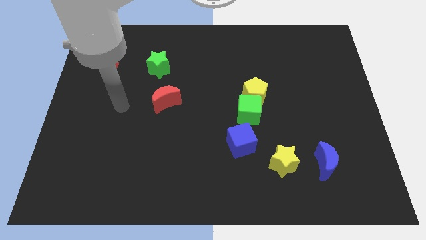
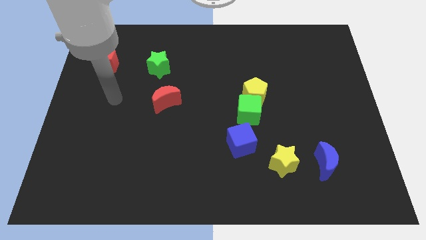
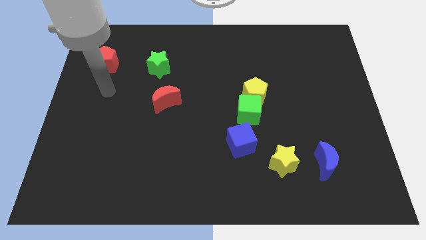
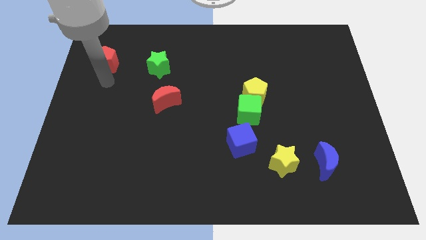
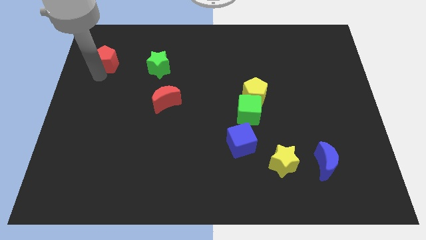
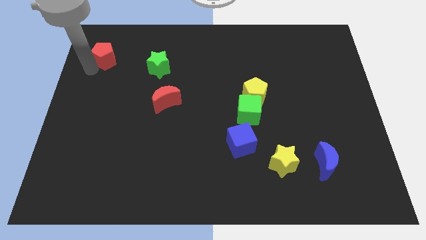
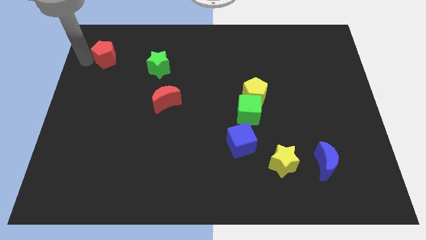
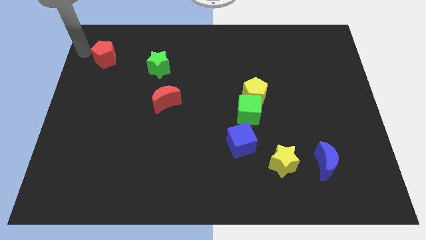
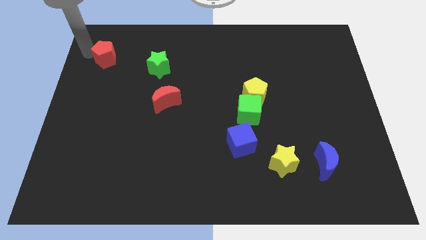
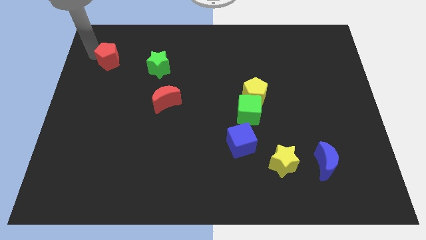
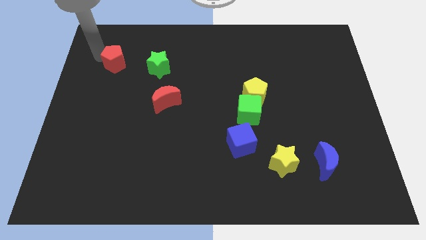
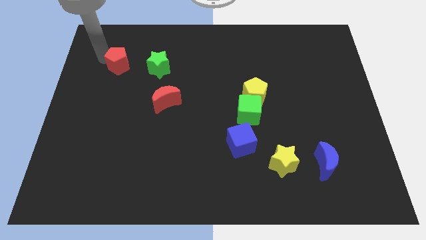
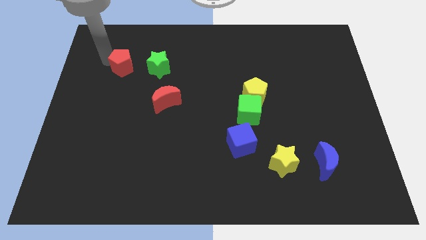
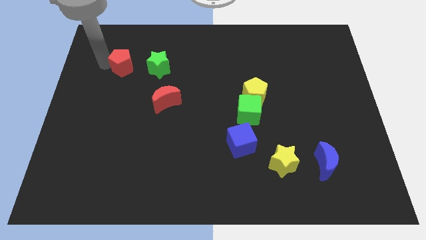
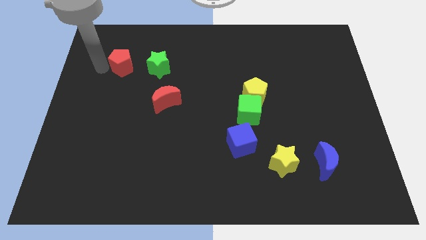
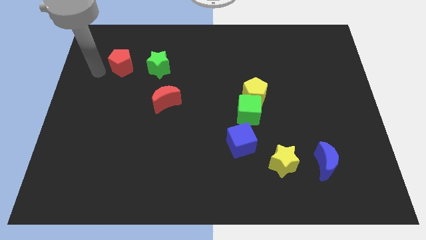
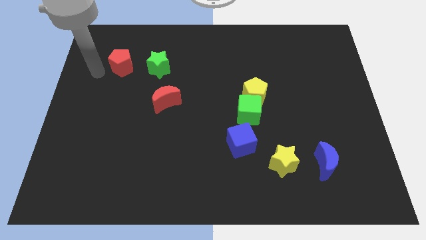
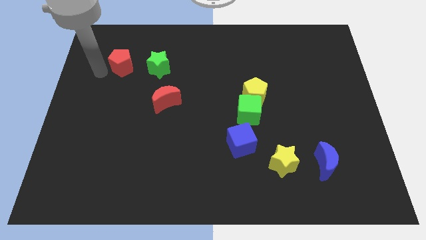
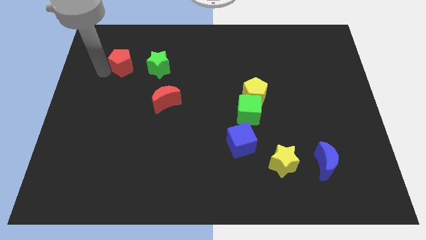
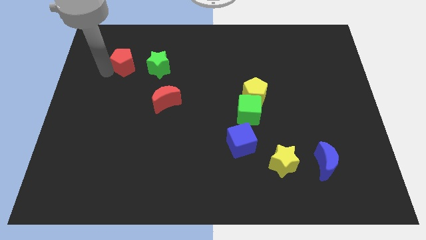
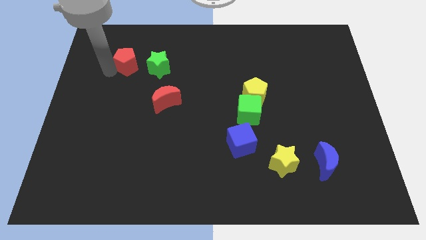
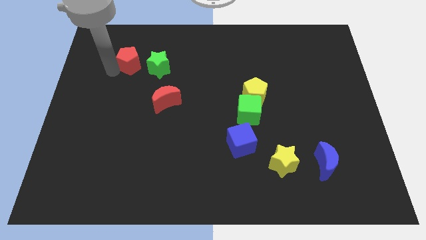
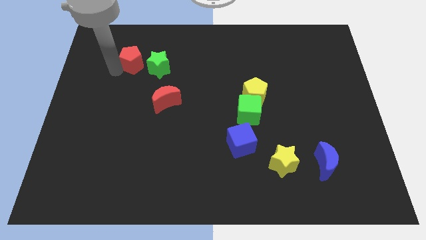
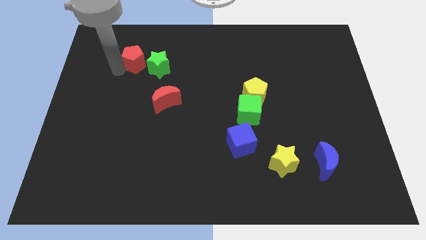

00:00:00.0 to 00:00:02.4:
slightly move the red pentagon to the right

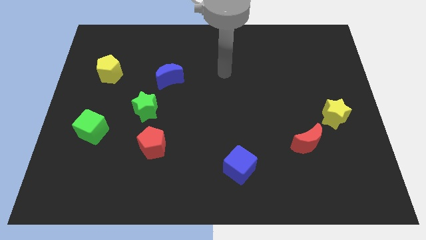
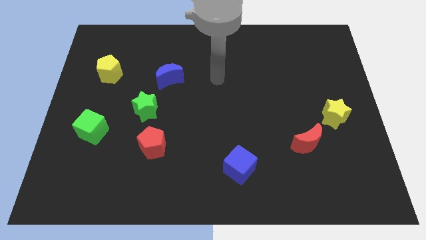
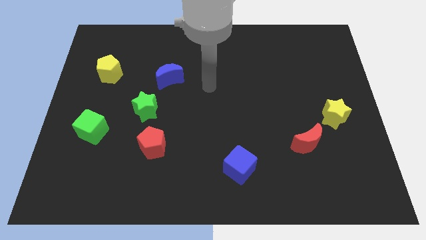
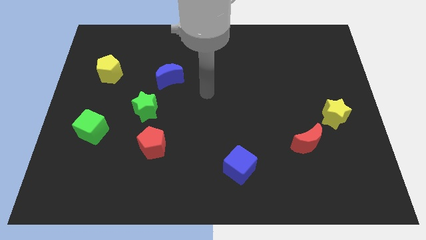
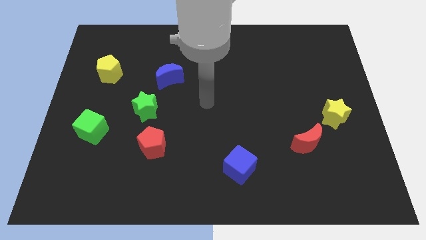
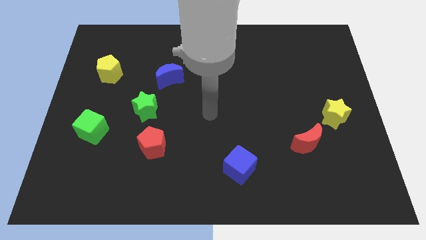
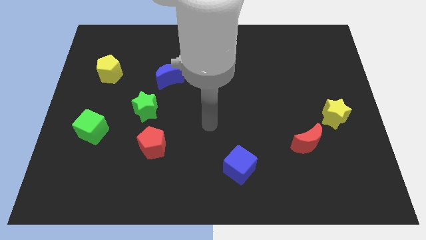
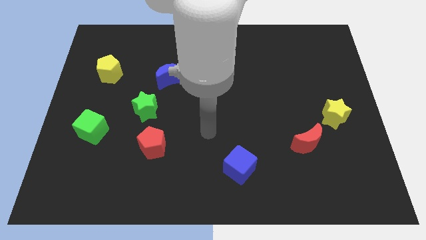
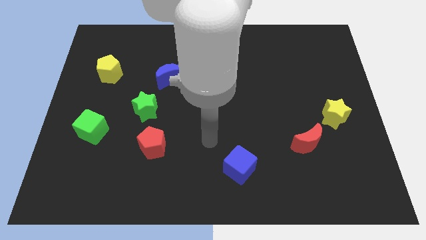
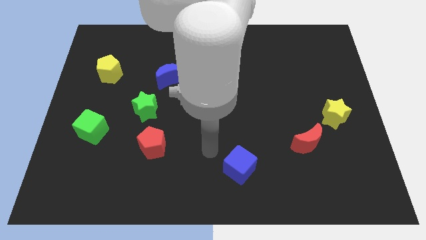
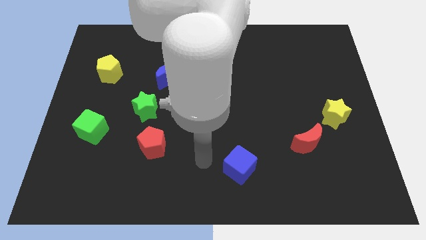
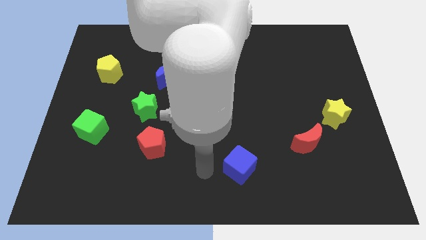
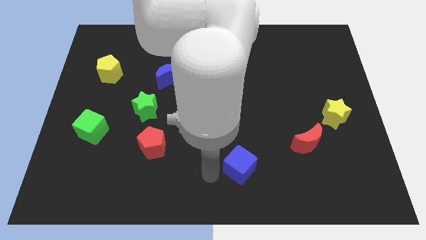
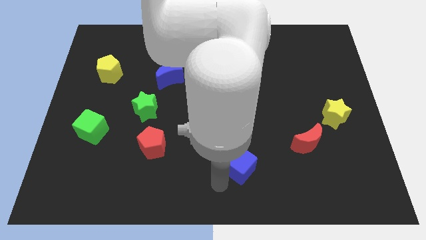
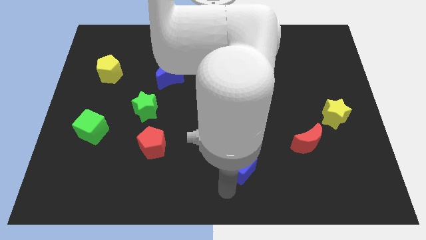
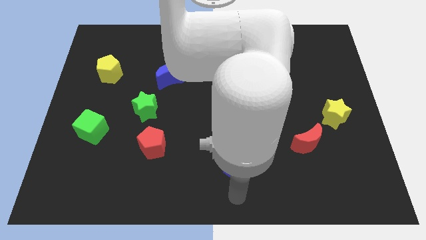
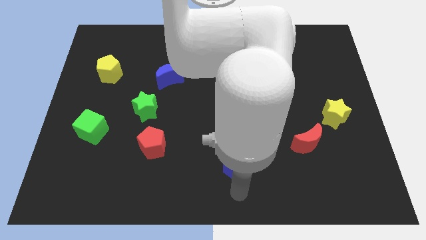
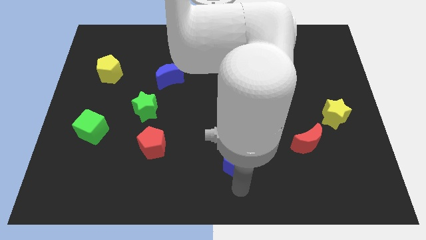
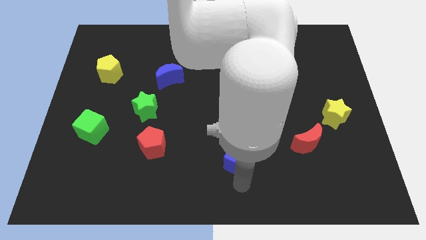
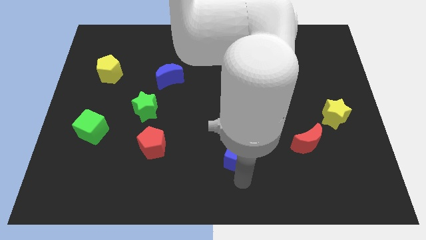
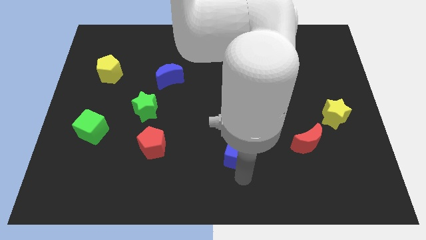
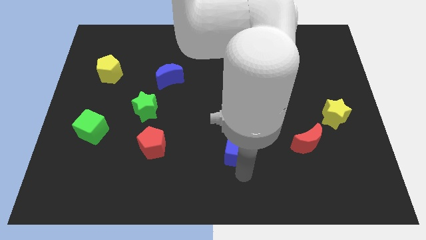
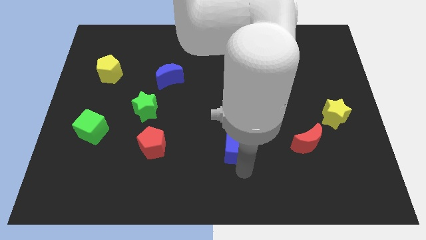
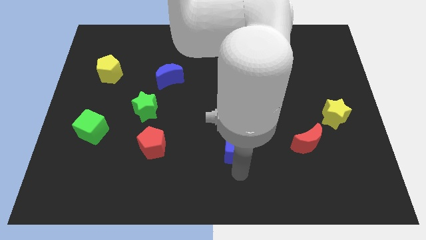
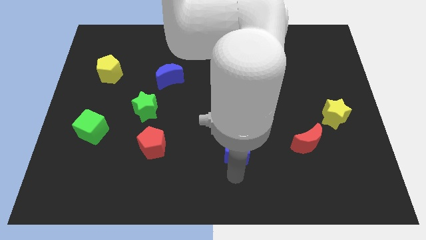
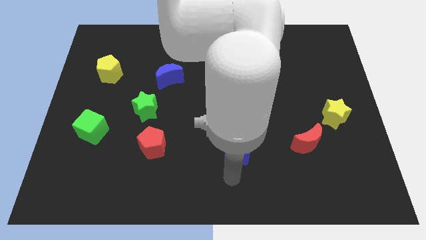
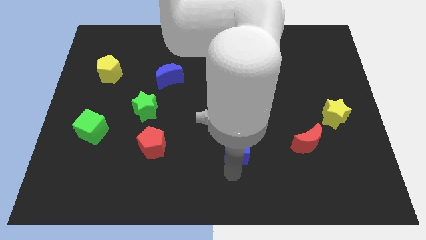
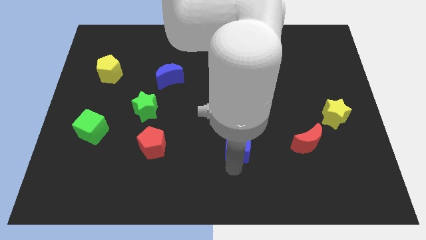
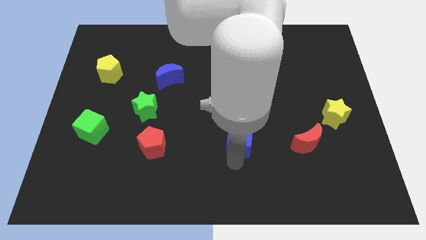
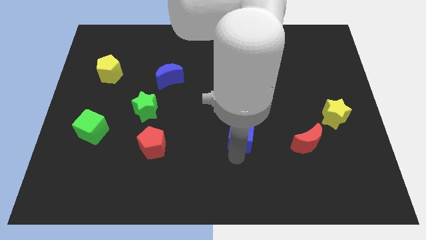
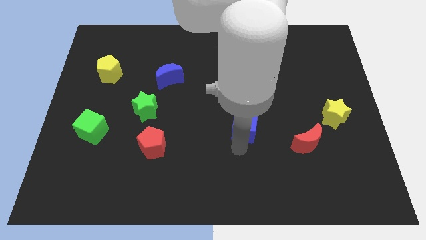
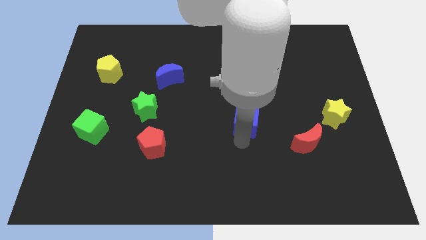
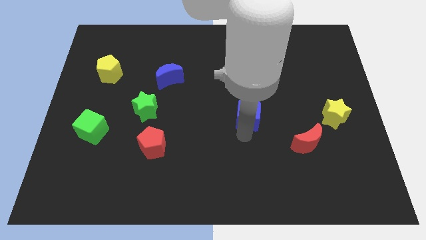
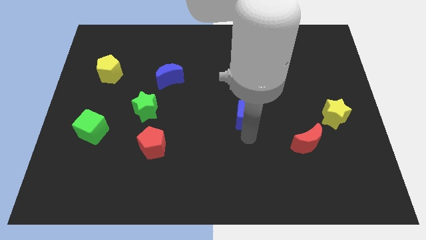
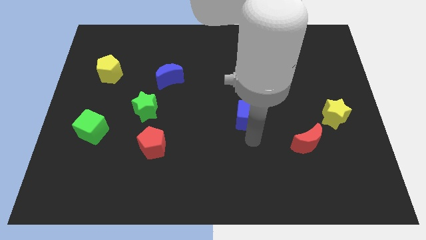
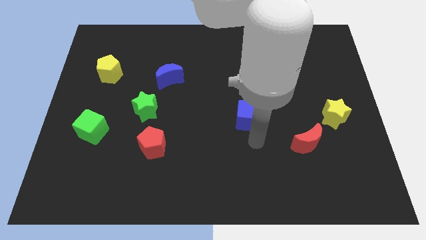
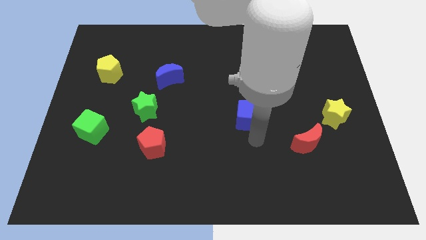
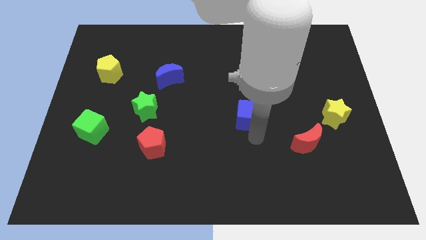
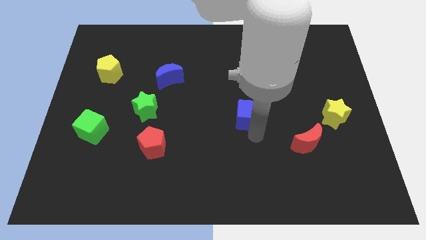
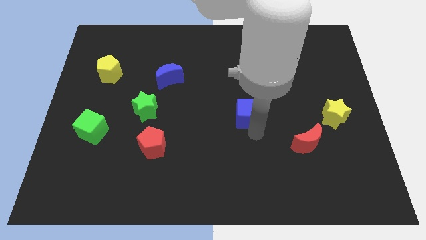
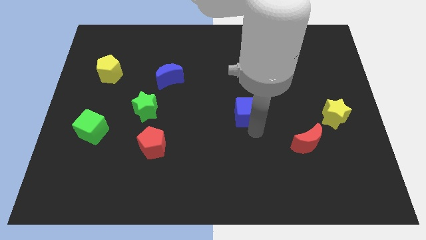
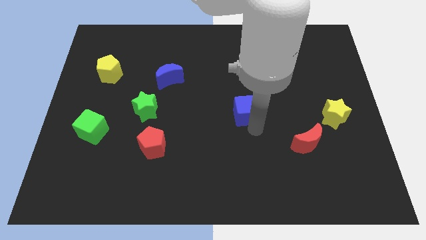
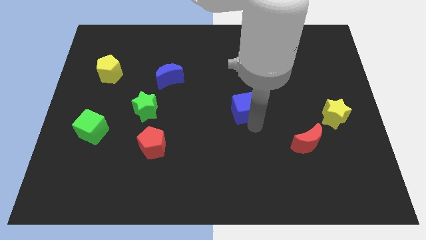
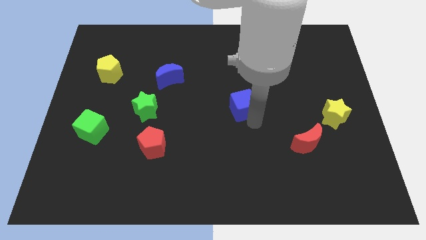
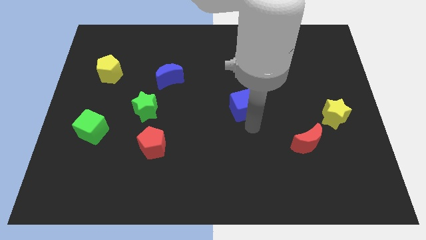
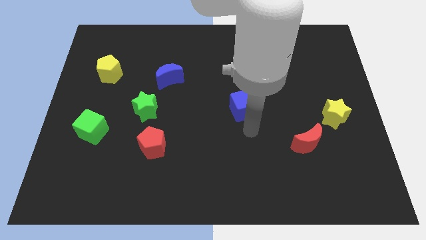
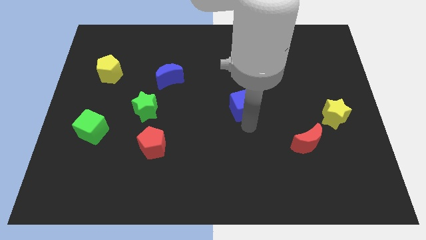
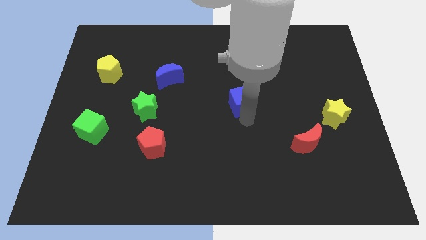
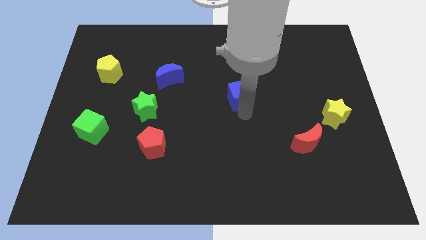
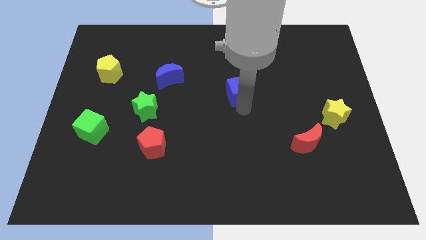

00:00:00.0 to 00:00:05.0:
move the blue cube up

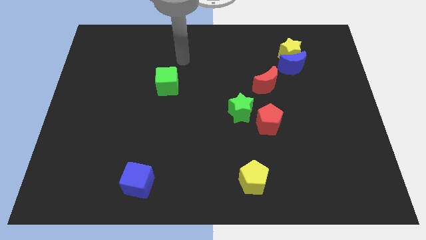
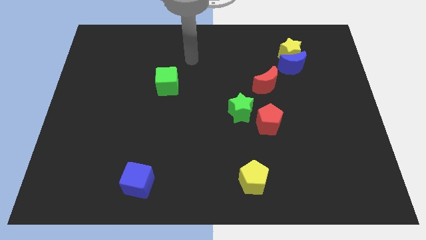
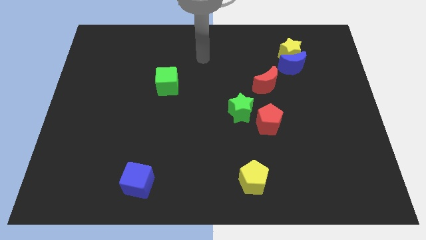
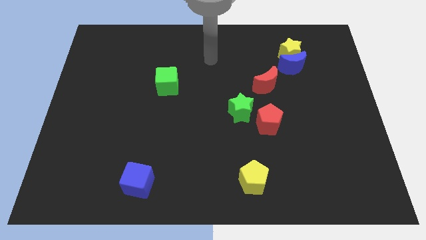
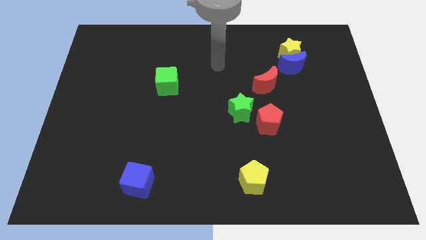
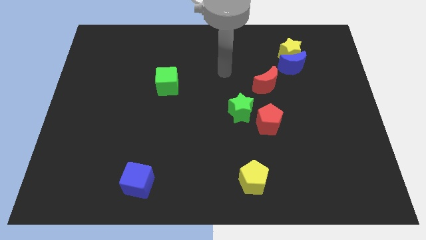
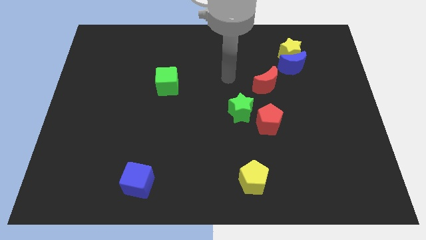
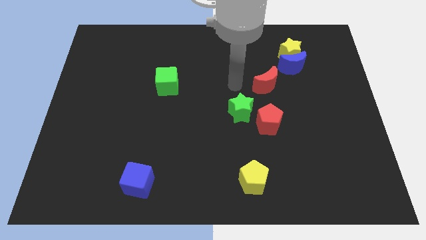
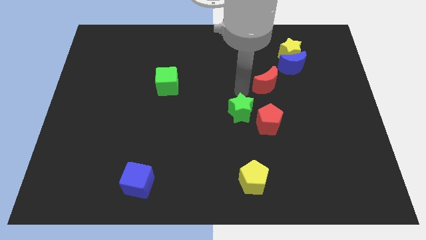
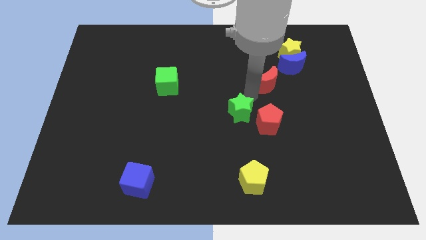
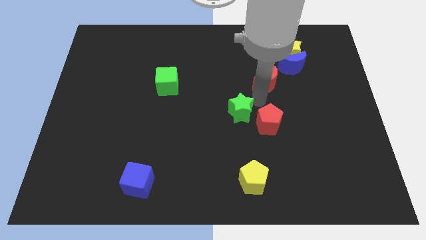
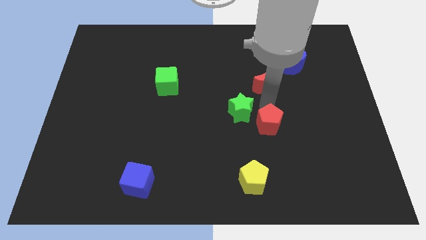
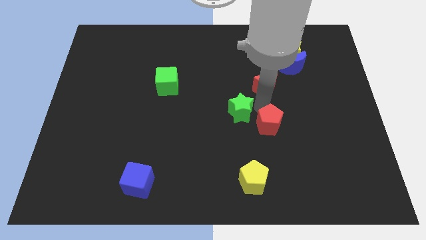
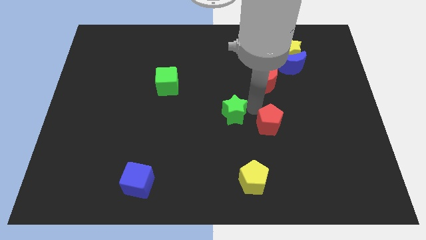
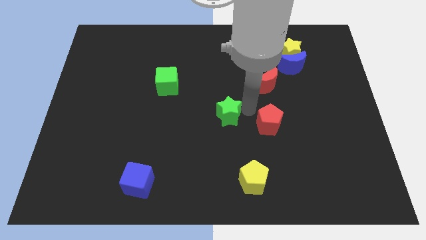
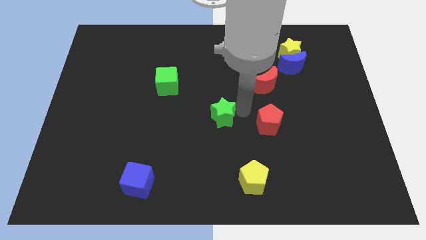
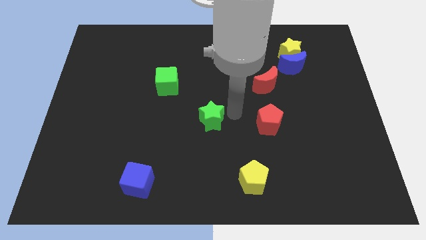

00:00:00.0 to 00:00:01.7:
move the green star slightly left
